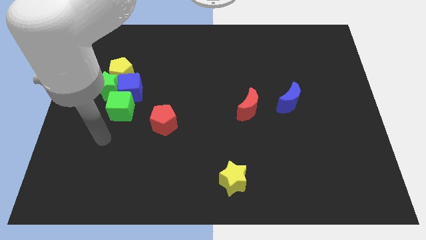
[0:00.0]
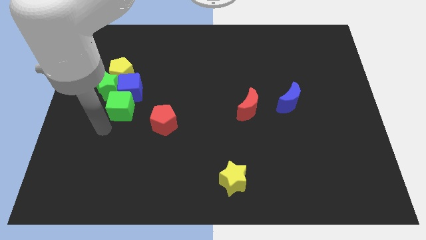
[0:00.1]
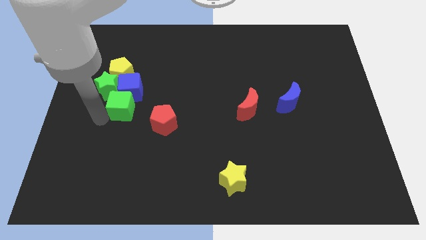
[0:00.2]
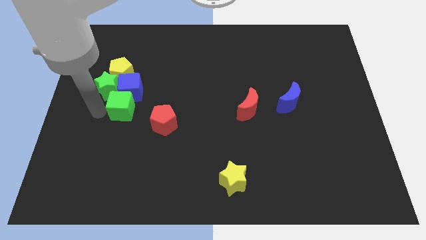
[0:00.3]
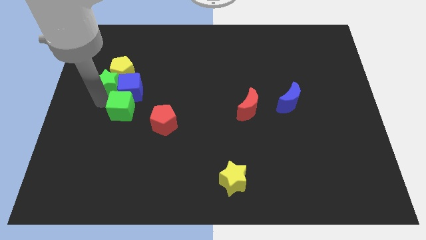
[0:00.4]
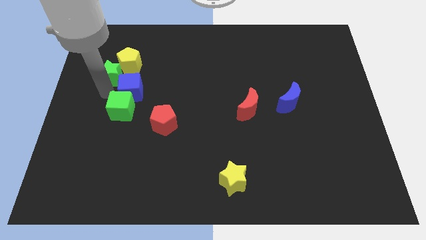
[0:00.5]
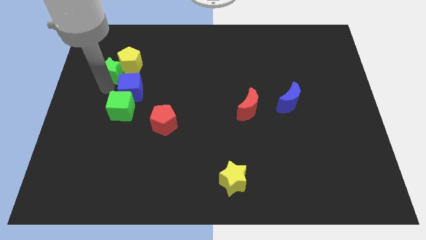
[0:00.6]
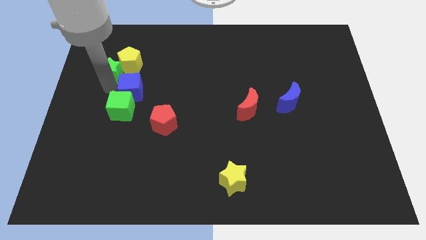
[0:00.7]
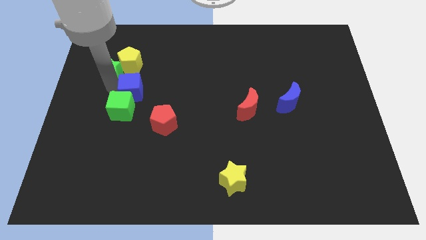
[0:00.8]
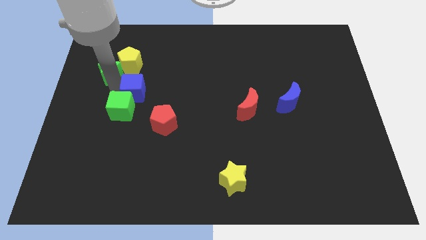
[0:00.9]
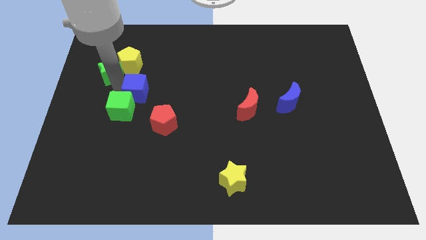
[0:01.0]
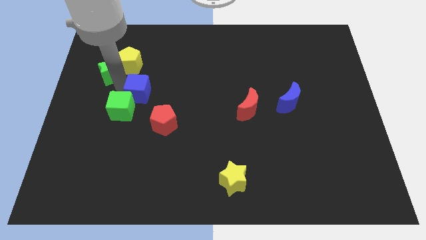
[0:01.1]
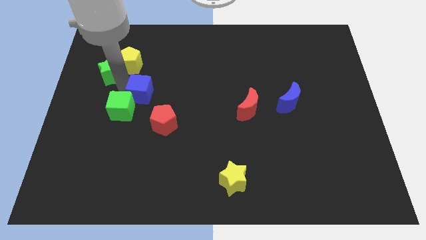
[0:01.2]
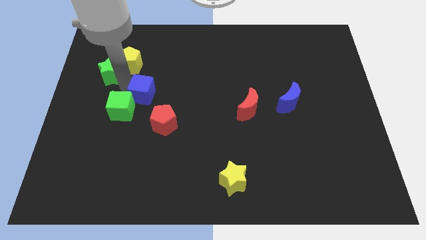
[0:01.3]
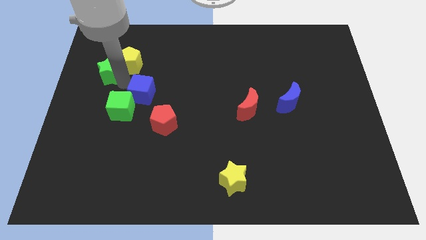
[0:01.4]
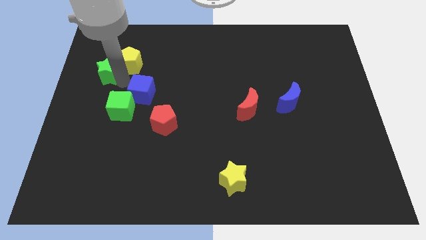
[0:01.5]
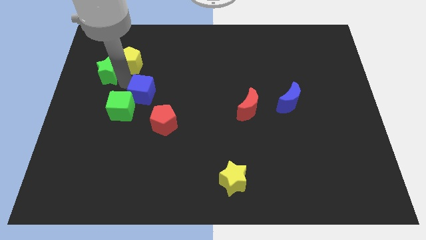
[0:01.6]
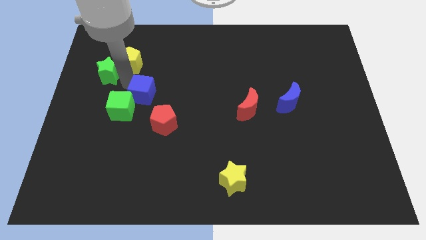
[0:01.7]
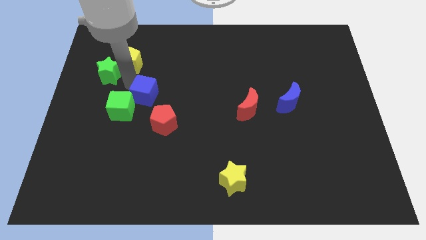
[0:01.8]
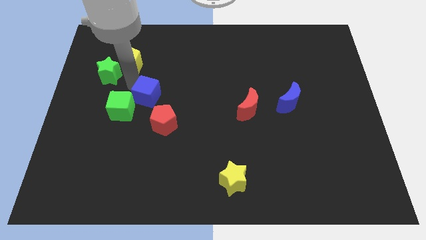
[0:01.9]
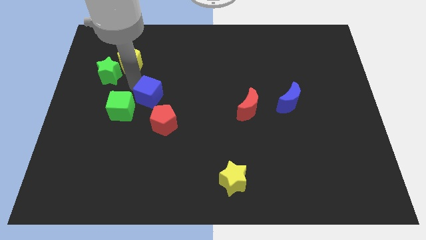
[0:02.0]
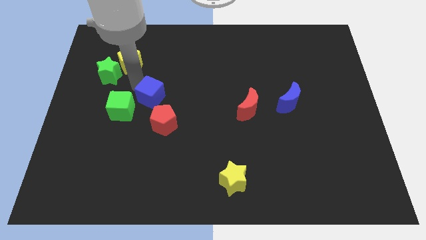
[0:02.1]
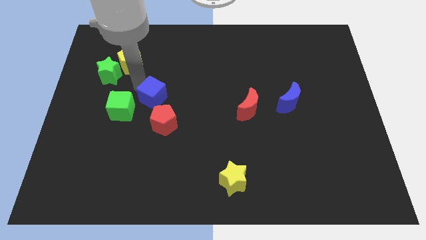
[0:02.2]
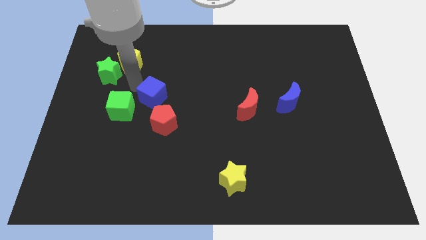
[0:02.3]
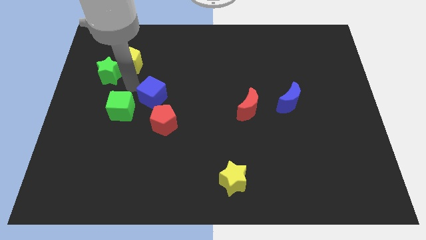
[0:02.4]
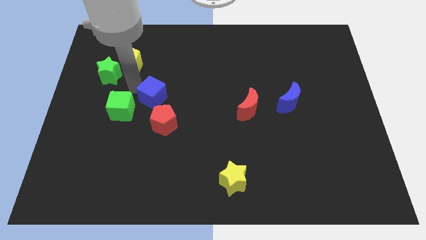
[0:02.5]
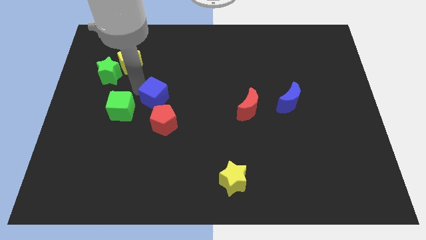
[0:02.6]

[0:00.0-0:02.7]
move the blue cube away from the group

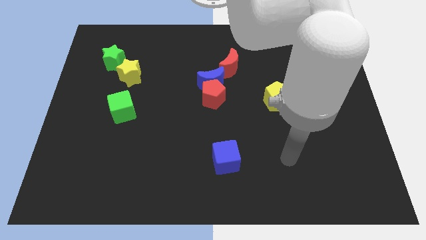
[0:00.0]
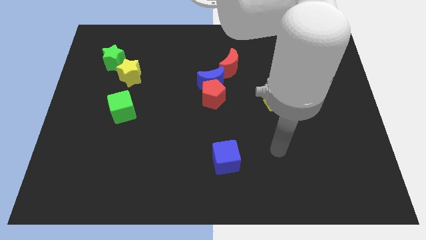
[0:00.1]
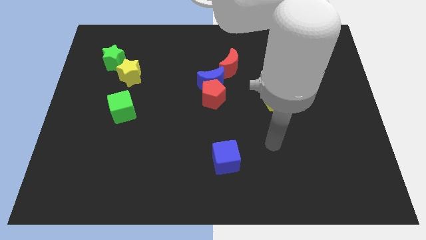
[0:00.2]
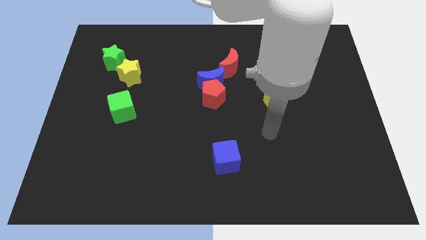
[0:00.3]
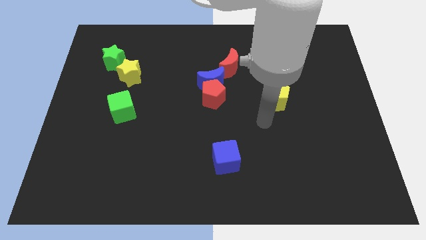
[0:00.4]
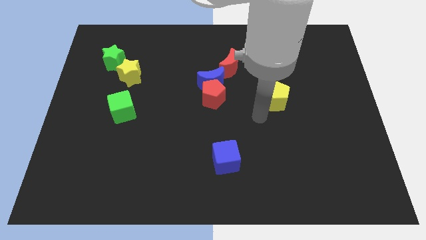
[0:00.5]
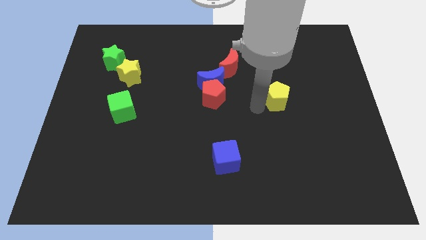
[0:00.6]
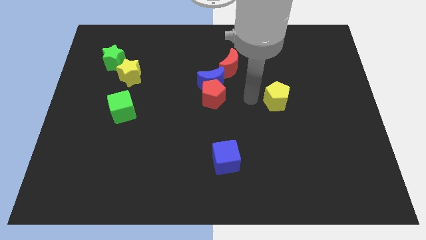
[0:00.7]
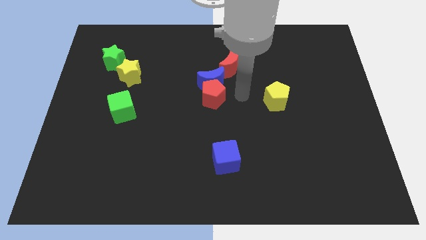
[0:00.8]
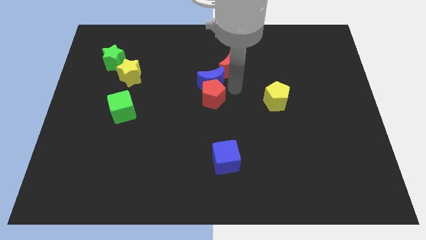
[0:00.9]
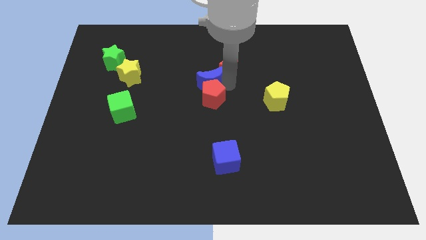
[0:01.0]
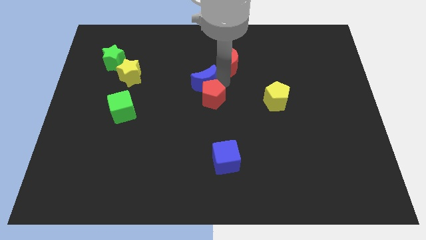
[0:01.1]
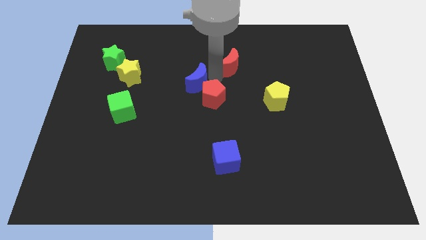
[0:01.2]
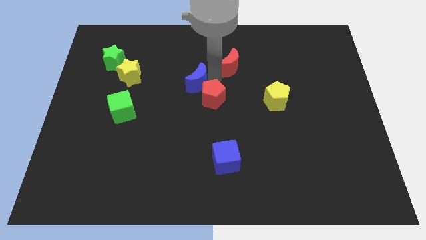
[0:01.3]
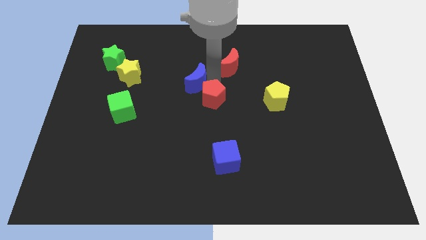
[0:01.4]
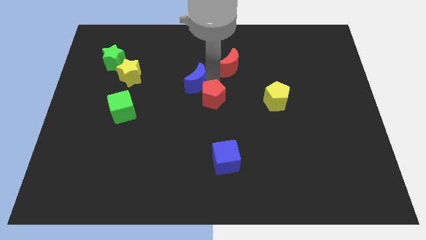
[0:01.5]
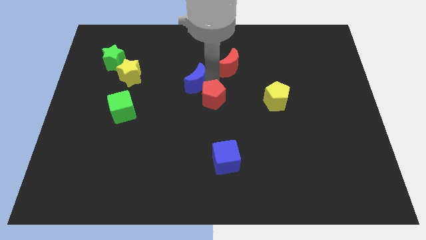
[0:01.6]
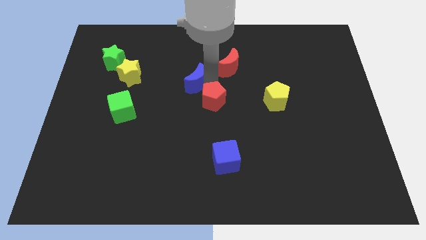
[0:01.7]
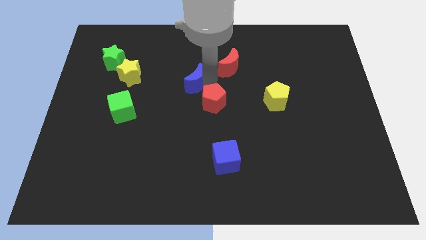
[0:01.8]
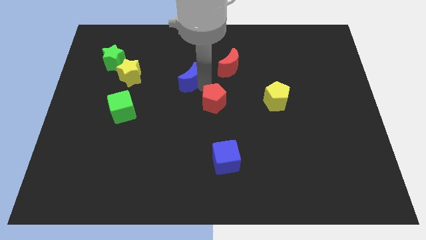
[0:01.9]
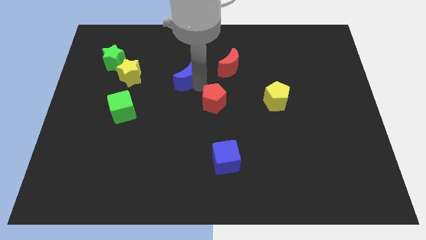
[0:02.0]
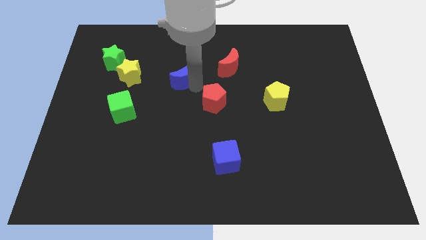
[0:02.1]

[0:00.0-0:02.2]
separate the red pentagon from the blue moon

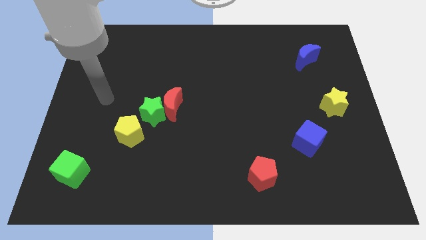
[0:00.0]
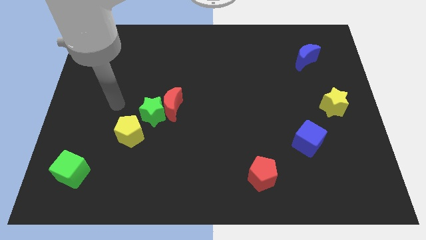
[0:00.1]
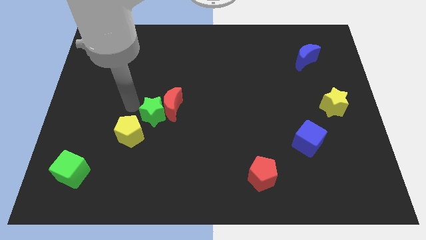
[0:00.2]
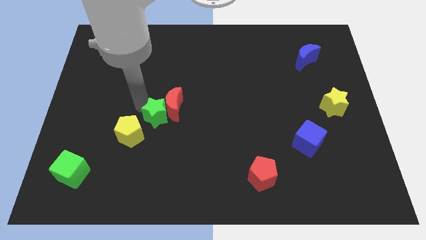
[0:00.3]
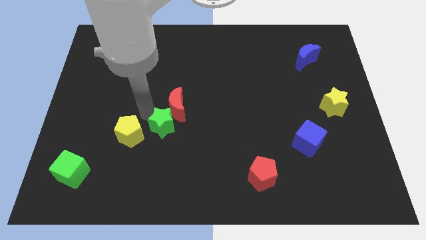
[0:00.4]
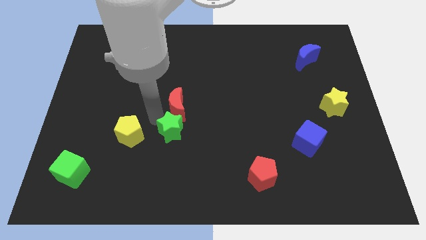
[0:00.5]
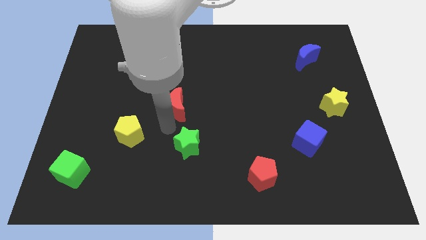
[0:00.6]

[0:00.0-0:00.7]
move the red moon away from the green star

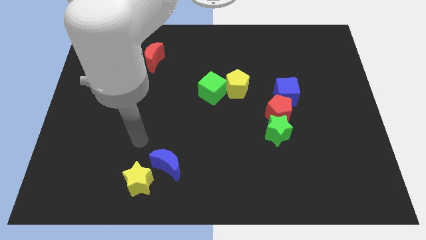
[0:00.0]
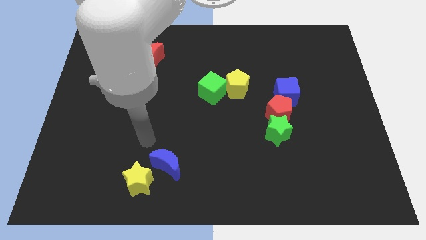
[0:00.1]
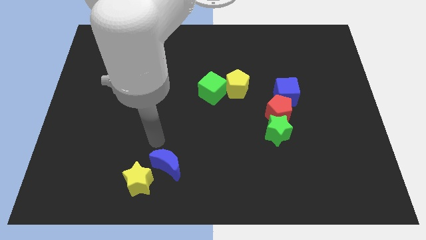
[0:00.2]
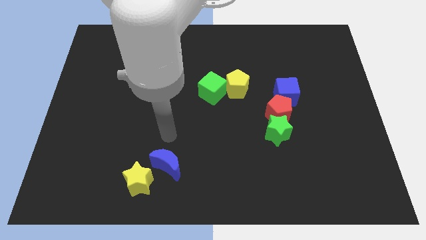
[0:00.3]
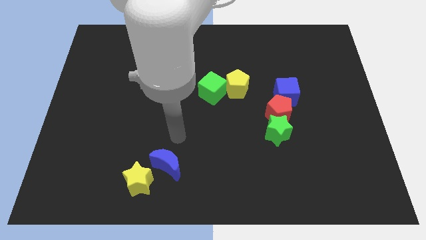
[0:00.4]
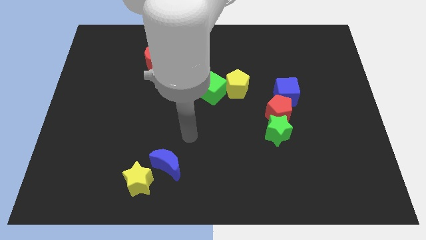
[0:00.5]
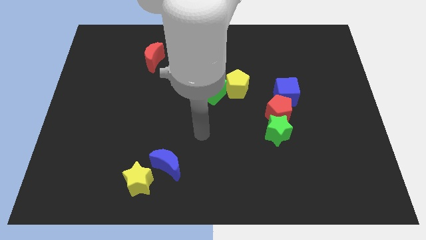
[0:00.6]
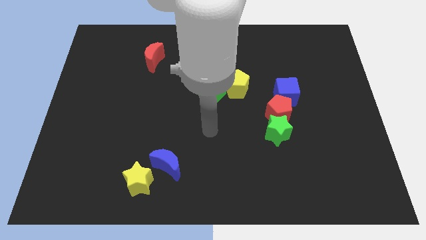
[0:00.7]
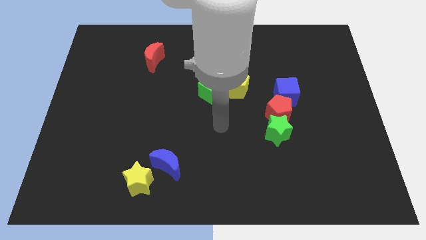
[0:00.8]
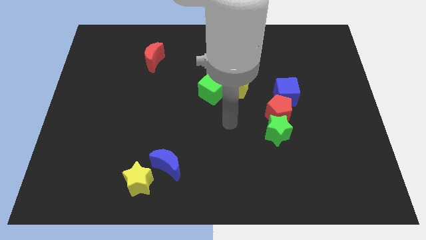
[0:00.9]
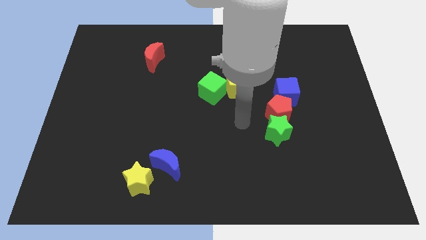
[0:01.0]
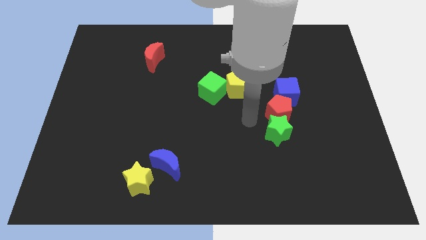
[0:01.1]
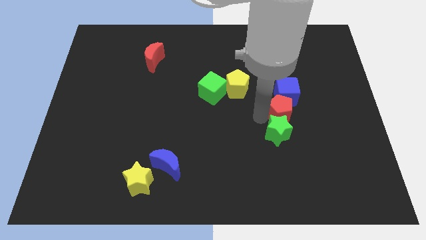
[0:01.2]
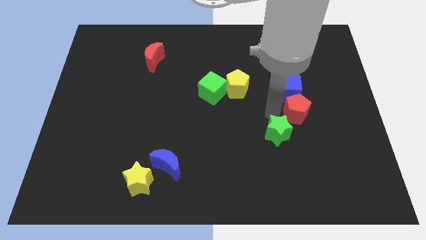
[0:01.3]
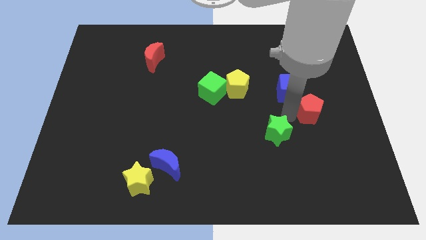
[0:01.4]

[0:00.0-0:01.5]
pull the green star apart from the red pentagon

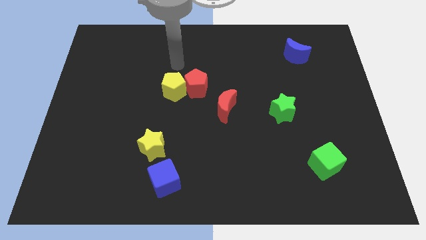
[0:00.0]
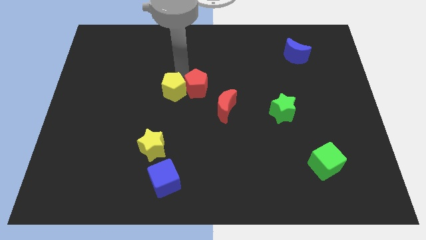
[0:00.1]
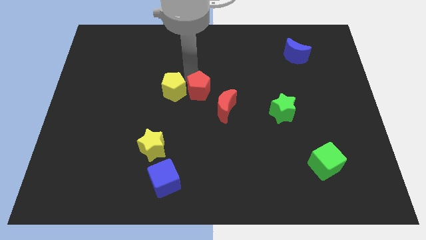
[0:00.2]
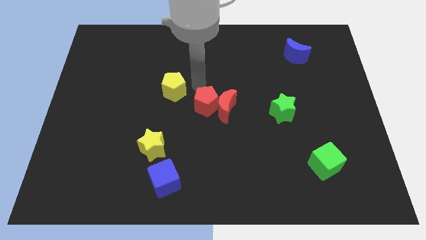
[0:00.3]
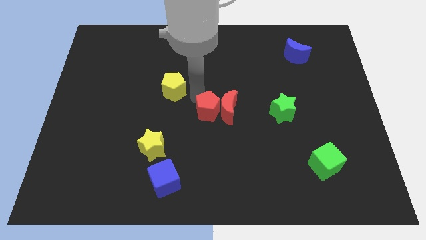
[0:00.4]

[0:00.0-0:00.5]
separate the yellow pentagon from the red pentagon

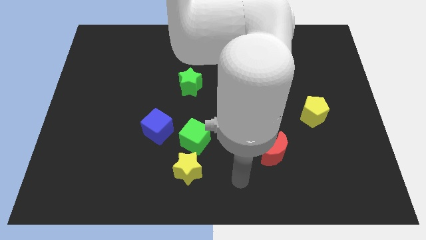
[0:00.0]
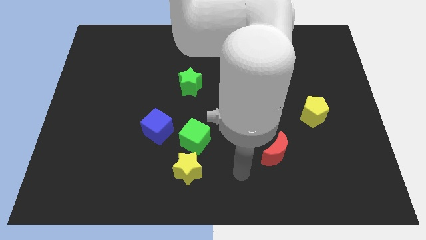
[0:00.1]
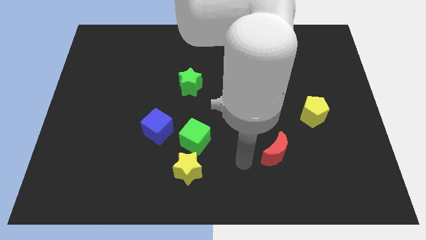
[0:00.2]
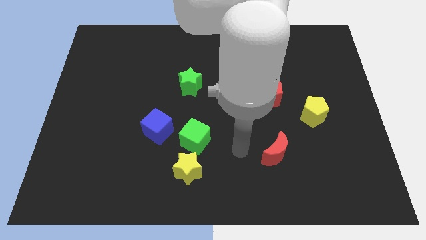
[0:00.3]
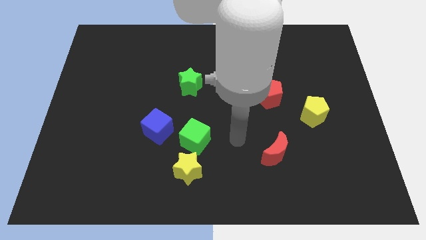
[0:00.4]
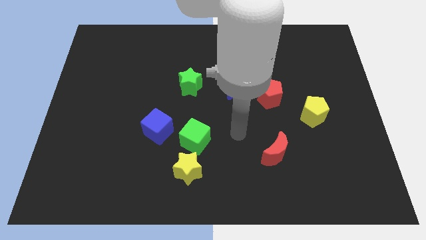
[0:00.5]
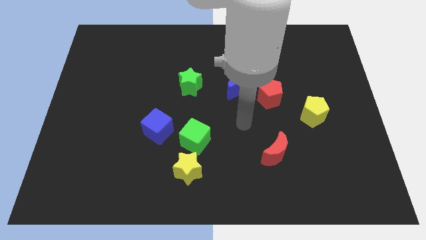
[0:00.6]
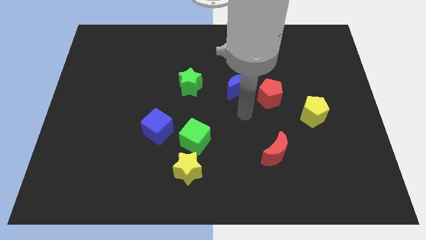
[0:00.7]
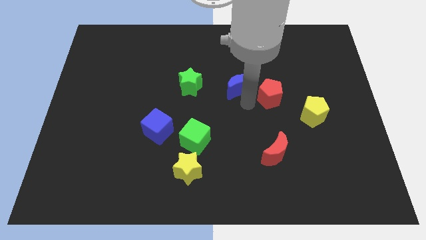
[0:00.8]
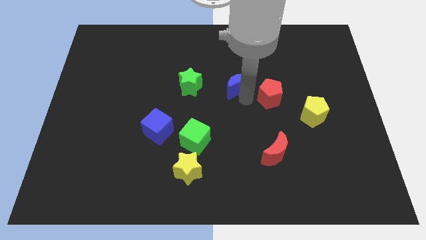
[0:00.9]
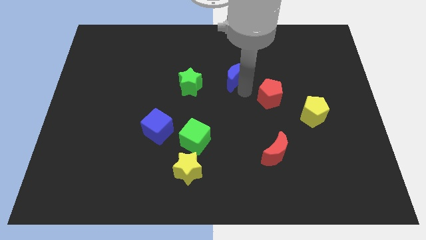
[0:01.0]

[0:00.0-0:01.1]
move the red pentagon away from the blue moon

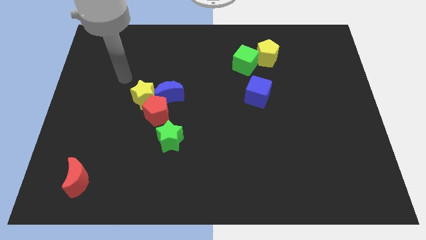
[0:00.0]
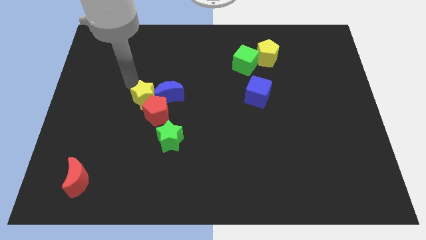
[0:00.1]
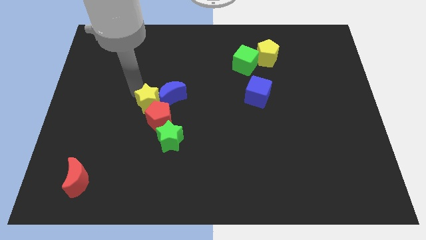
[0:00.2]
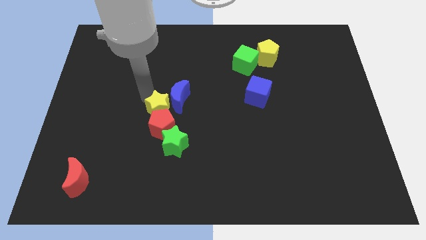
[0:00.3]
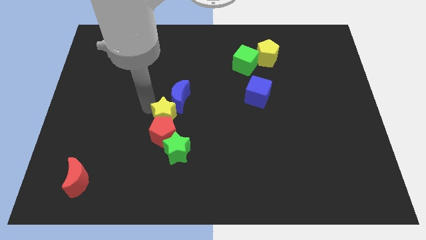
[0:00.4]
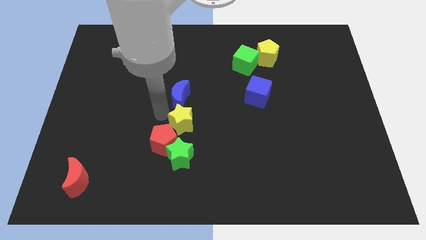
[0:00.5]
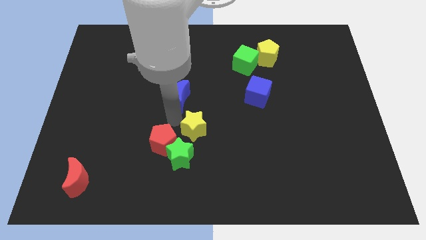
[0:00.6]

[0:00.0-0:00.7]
separate the blue moon from the yellow star and red pentagon
